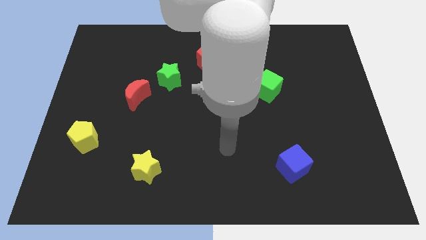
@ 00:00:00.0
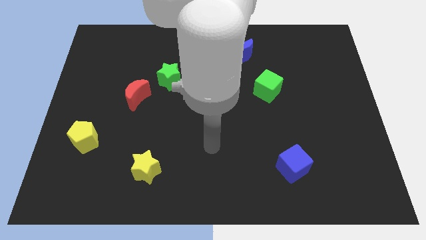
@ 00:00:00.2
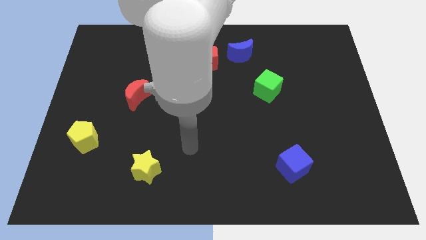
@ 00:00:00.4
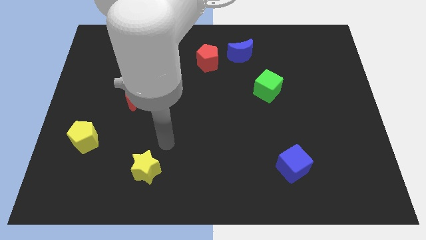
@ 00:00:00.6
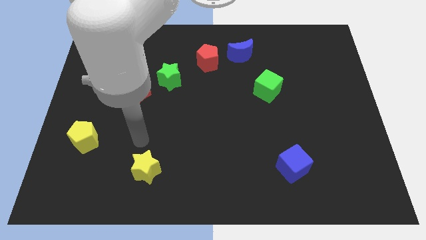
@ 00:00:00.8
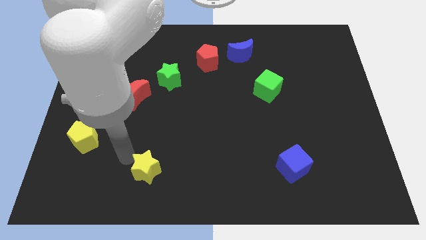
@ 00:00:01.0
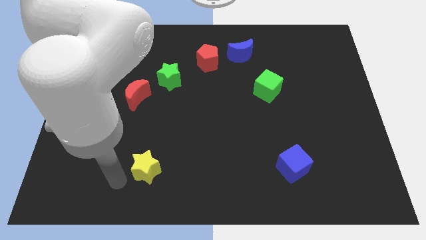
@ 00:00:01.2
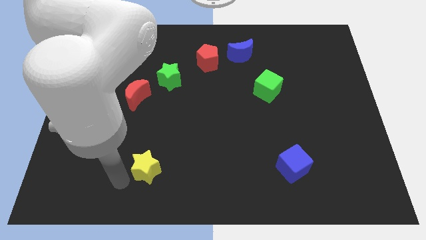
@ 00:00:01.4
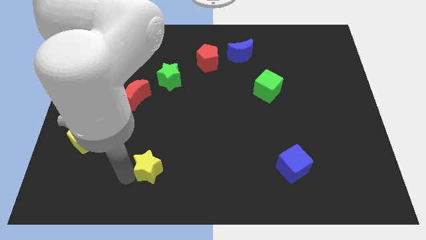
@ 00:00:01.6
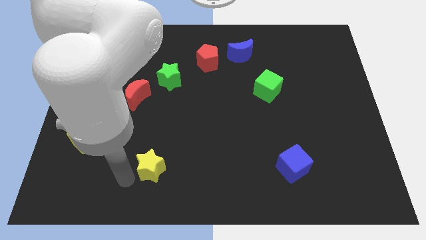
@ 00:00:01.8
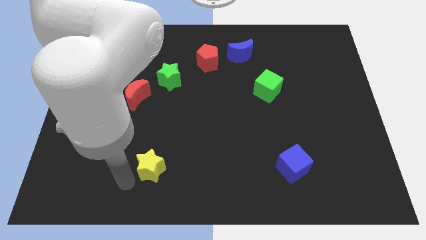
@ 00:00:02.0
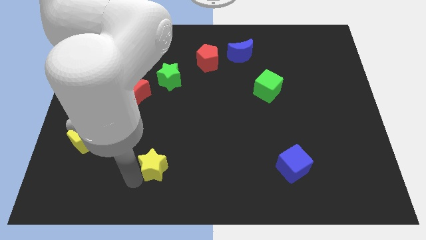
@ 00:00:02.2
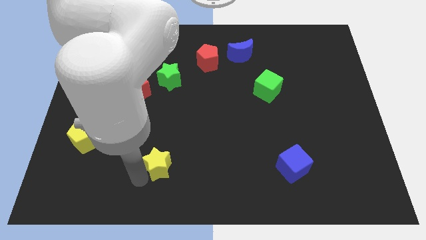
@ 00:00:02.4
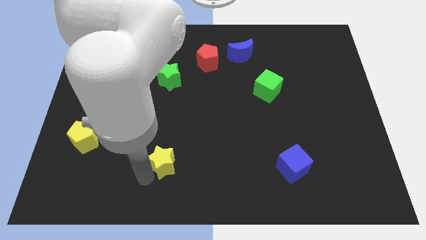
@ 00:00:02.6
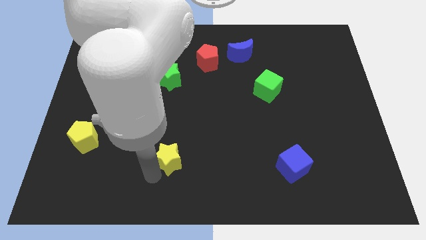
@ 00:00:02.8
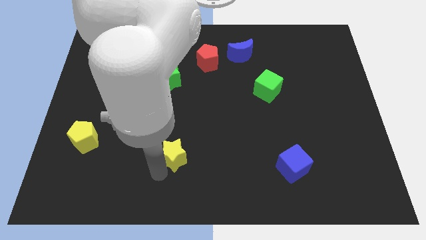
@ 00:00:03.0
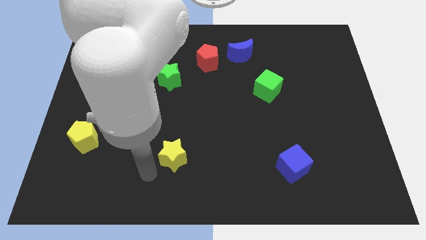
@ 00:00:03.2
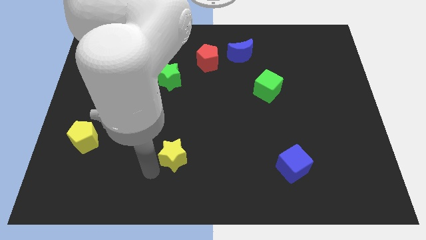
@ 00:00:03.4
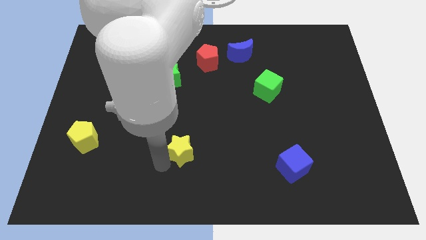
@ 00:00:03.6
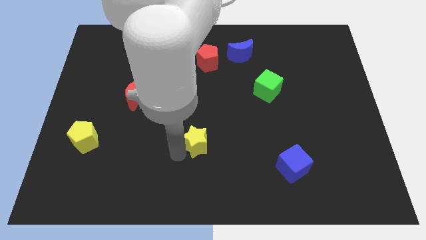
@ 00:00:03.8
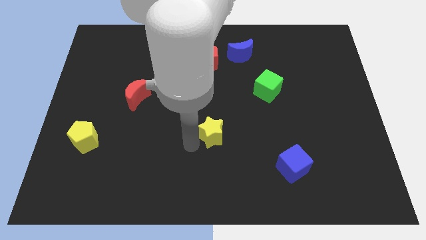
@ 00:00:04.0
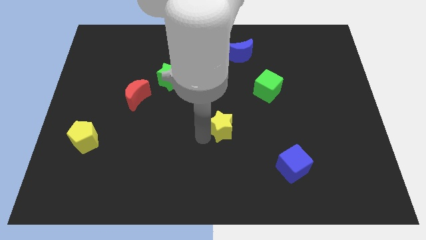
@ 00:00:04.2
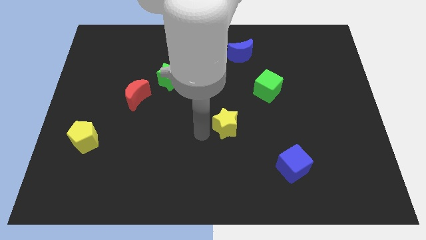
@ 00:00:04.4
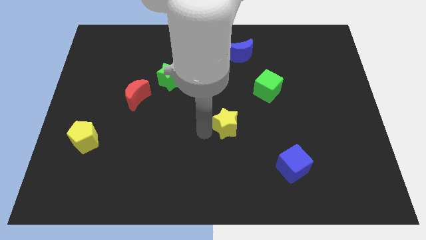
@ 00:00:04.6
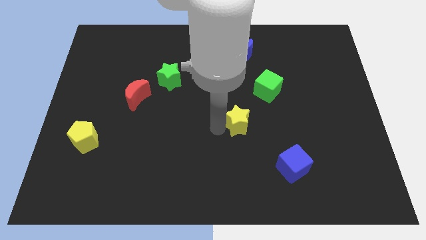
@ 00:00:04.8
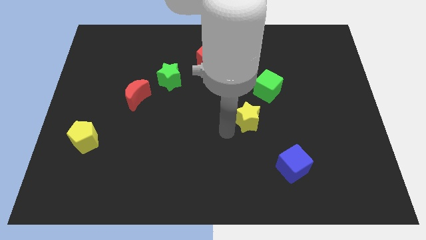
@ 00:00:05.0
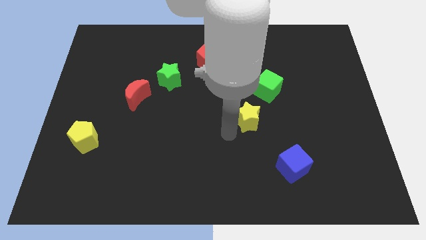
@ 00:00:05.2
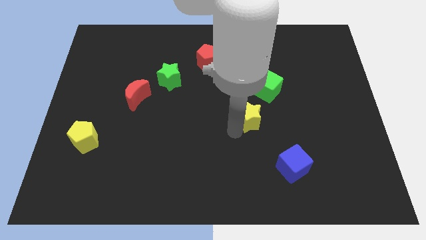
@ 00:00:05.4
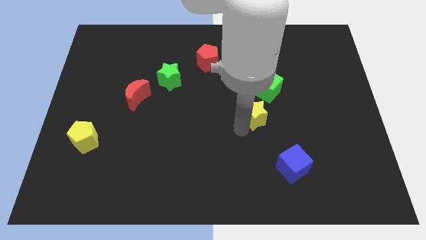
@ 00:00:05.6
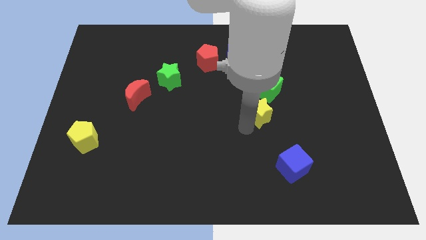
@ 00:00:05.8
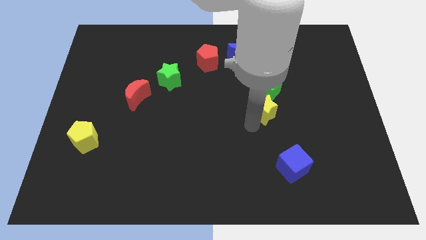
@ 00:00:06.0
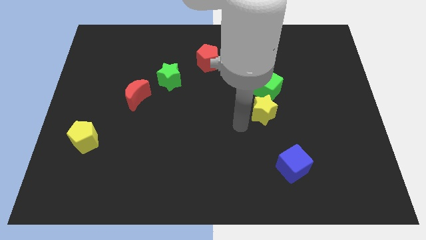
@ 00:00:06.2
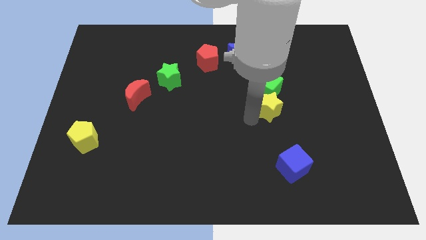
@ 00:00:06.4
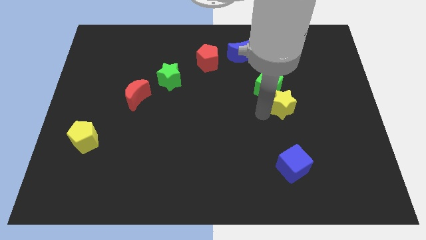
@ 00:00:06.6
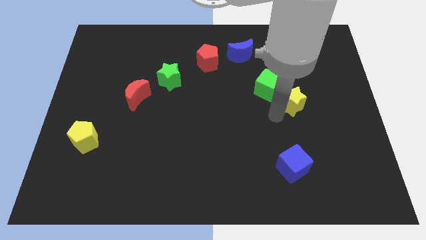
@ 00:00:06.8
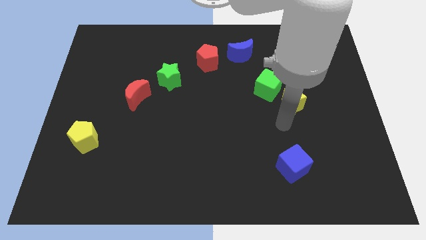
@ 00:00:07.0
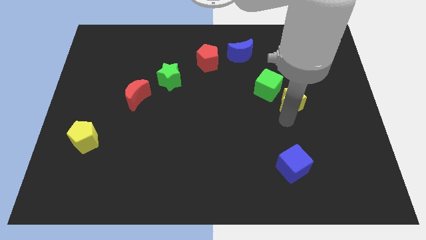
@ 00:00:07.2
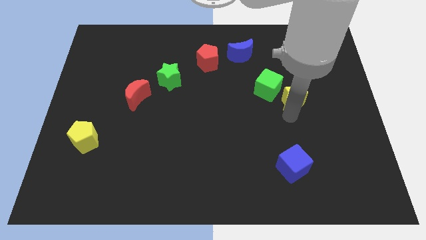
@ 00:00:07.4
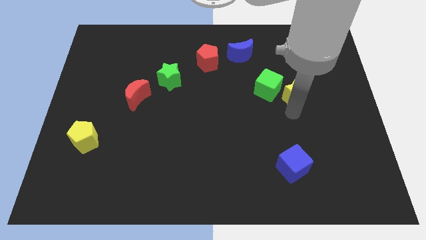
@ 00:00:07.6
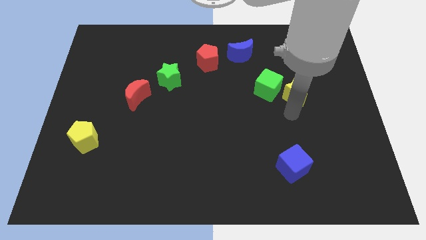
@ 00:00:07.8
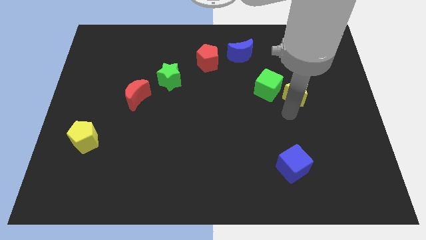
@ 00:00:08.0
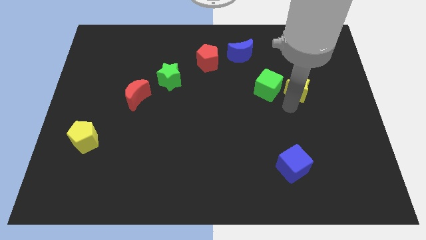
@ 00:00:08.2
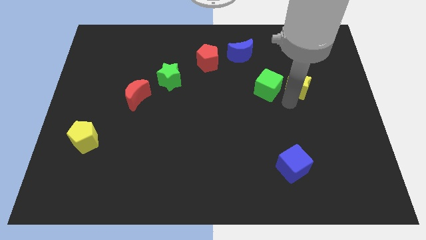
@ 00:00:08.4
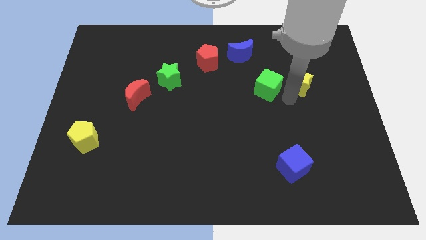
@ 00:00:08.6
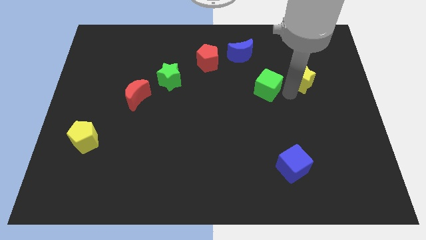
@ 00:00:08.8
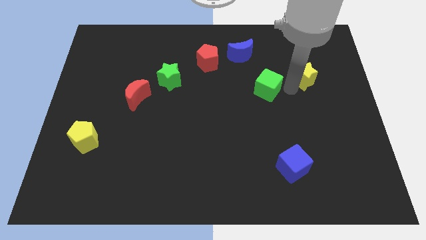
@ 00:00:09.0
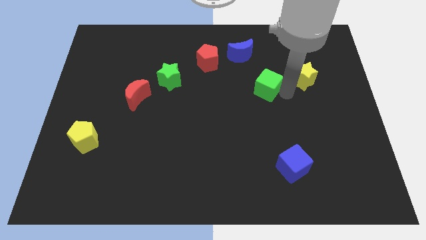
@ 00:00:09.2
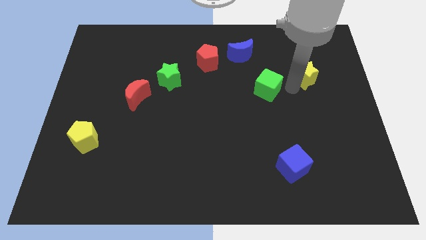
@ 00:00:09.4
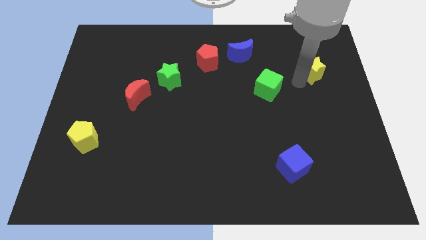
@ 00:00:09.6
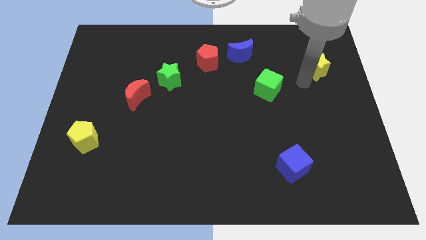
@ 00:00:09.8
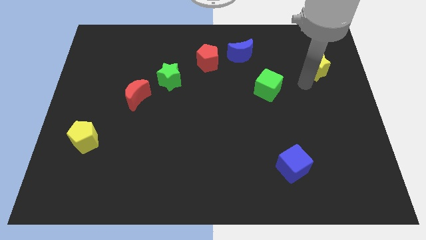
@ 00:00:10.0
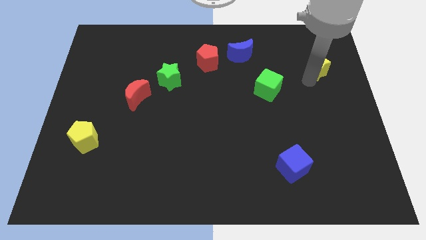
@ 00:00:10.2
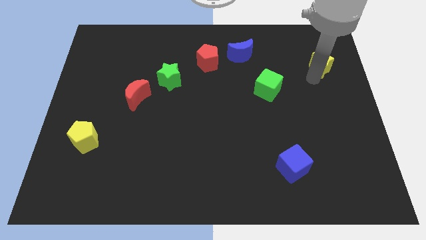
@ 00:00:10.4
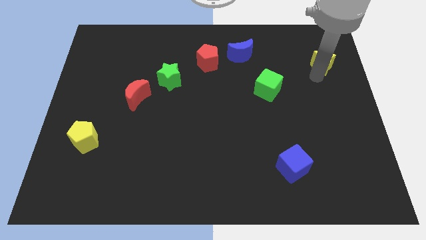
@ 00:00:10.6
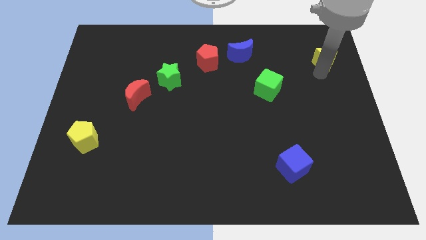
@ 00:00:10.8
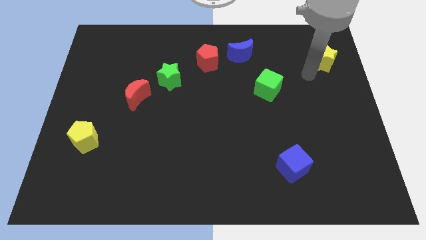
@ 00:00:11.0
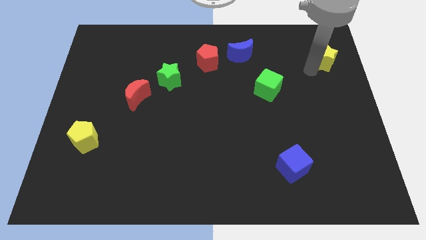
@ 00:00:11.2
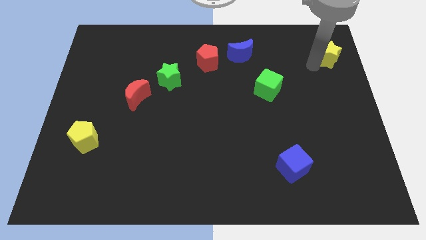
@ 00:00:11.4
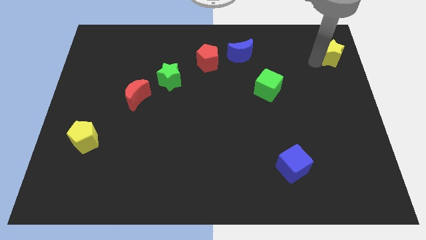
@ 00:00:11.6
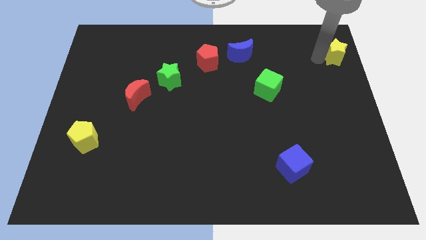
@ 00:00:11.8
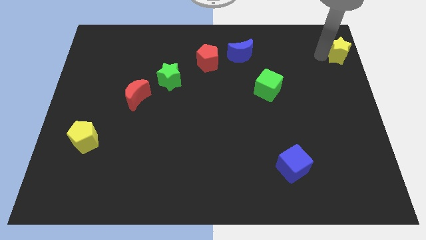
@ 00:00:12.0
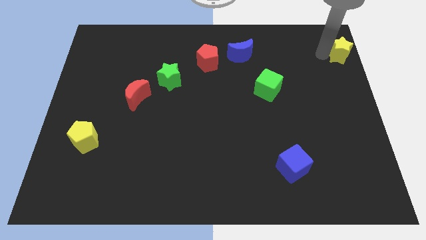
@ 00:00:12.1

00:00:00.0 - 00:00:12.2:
put the yellow star to the top right
